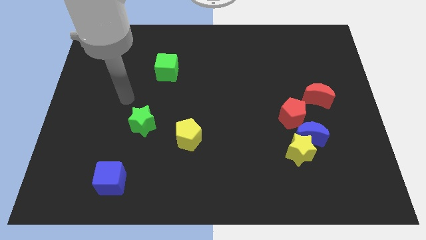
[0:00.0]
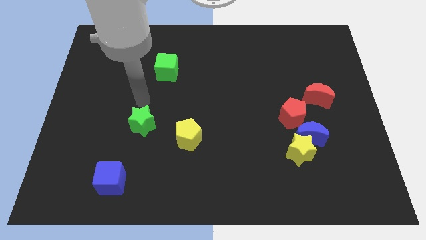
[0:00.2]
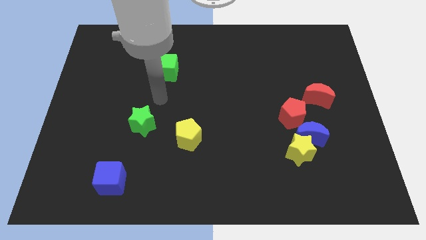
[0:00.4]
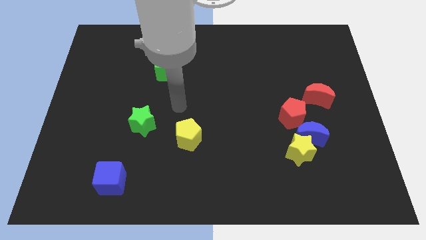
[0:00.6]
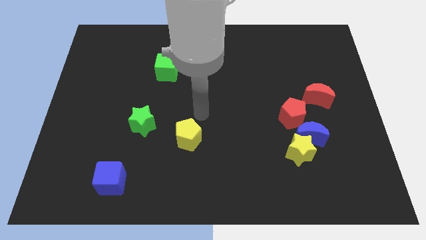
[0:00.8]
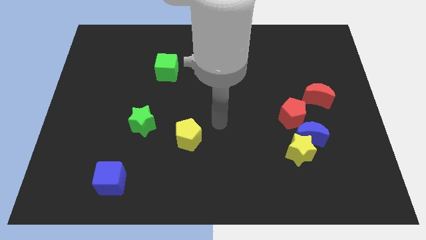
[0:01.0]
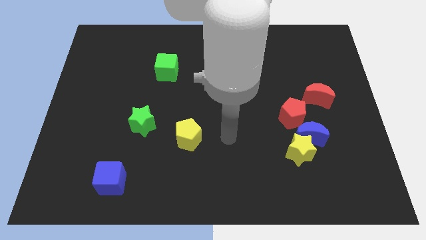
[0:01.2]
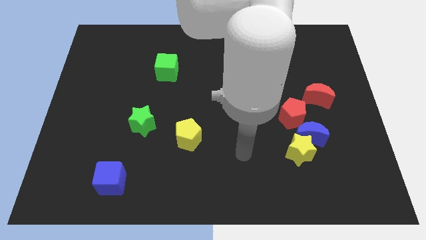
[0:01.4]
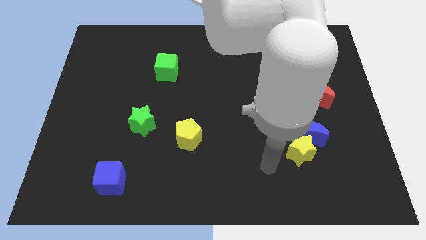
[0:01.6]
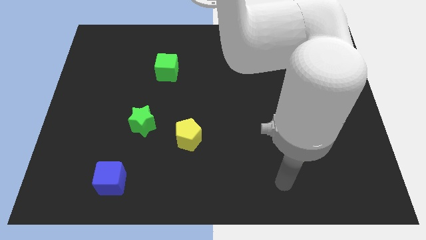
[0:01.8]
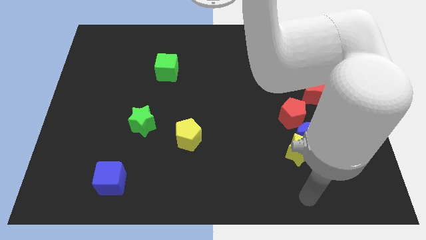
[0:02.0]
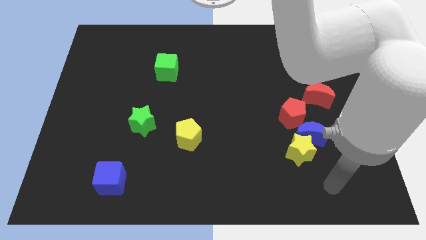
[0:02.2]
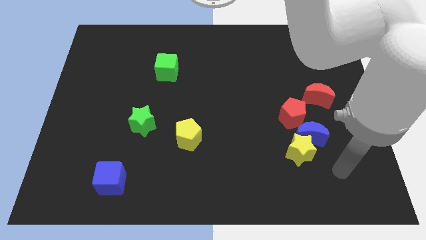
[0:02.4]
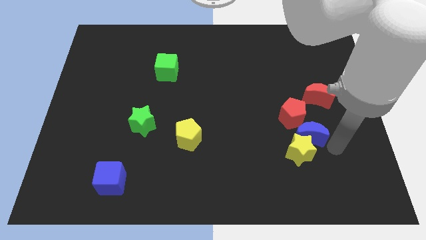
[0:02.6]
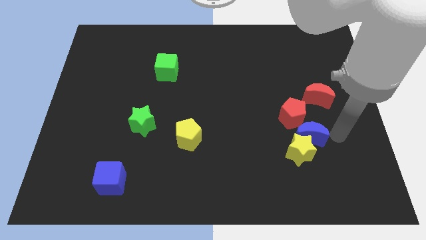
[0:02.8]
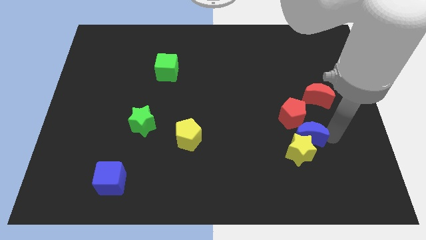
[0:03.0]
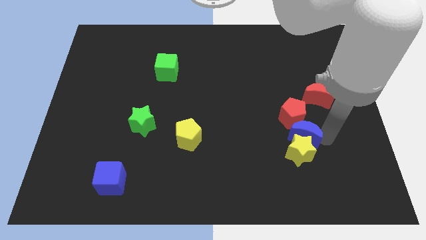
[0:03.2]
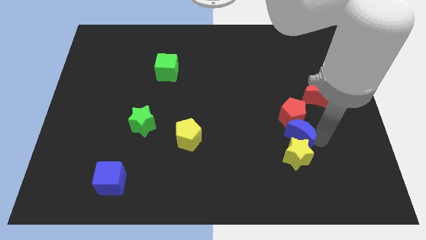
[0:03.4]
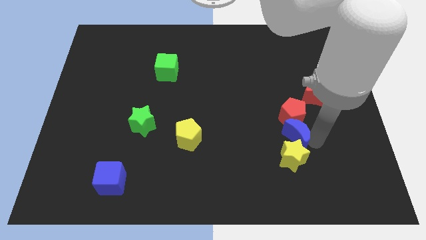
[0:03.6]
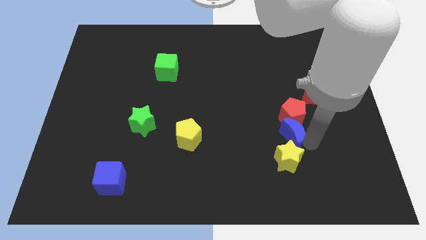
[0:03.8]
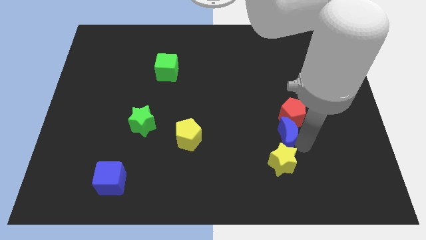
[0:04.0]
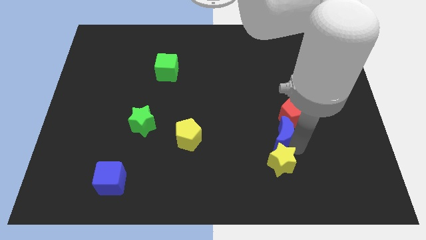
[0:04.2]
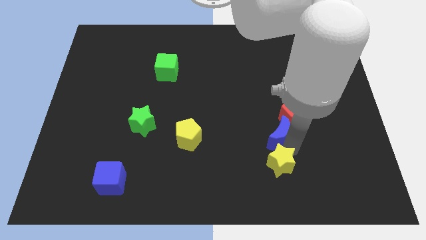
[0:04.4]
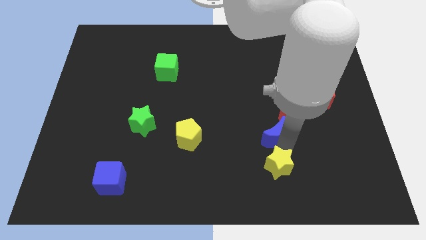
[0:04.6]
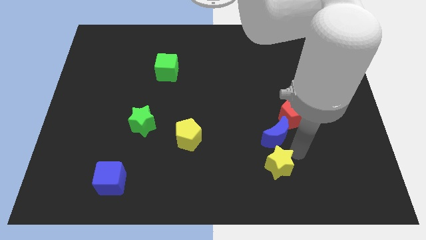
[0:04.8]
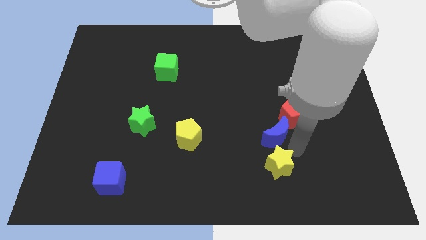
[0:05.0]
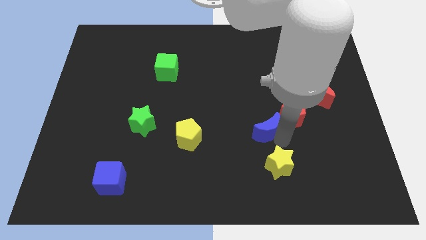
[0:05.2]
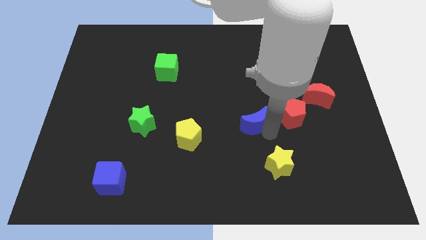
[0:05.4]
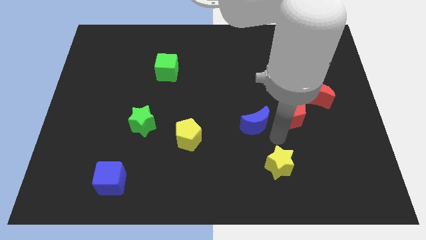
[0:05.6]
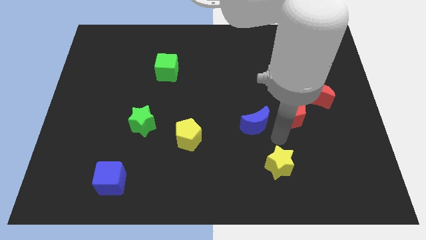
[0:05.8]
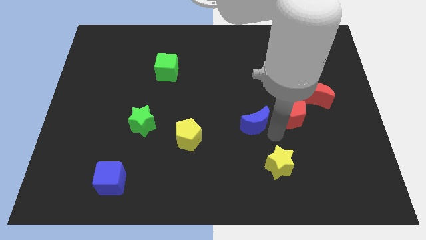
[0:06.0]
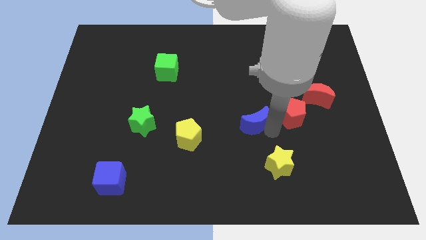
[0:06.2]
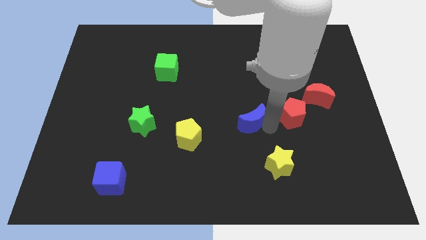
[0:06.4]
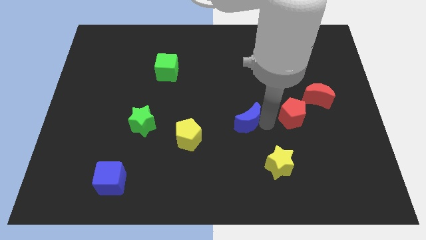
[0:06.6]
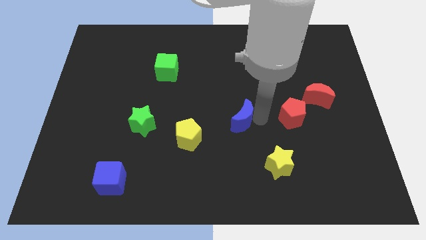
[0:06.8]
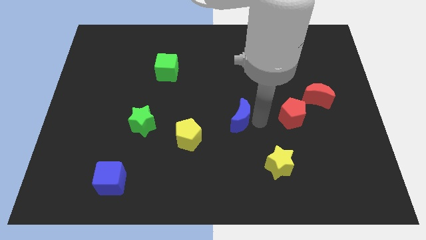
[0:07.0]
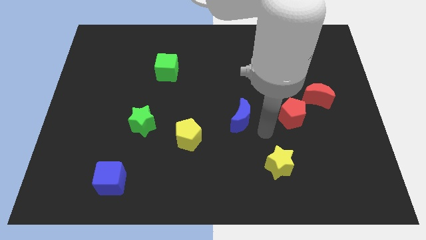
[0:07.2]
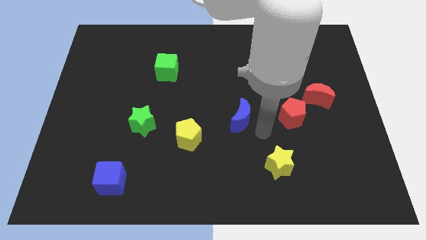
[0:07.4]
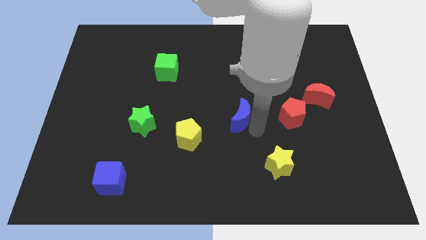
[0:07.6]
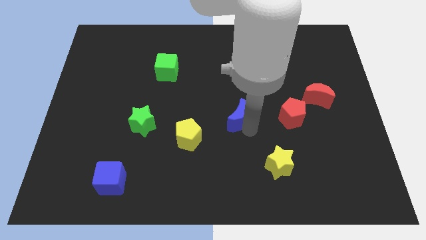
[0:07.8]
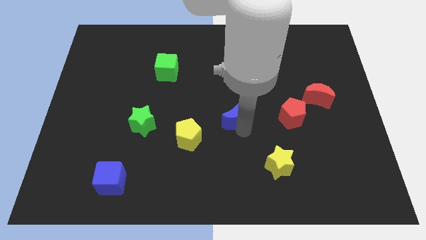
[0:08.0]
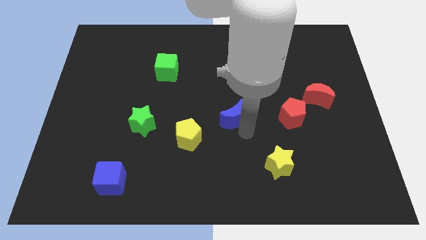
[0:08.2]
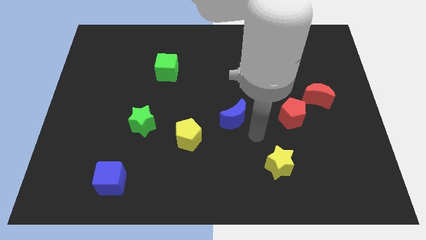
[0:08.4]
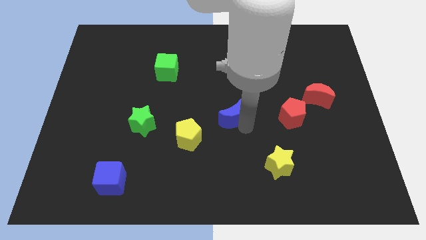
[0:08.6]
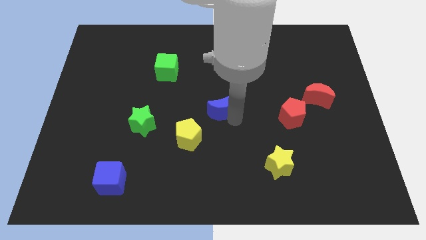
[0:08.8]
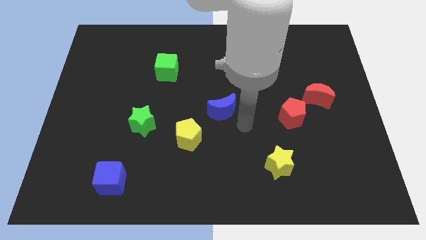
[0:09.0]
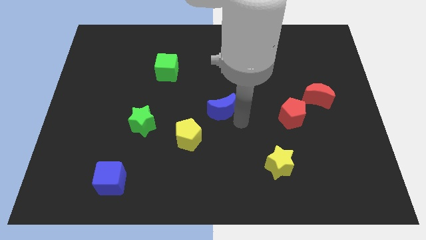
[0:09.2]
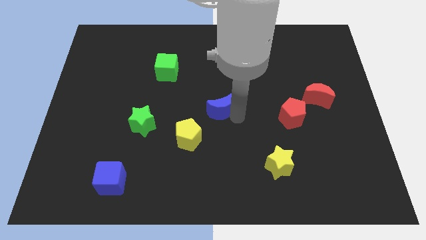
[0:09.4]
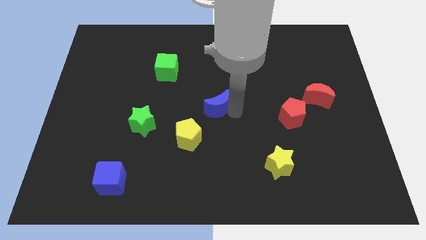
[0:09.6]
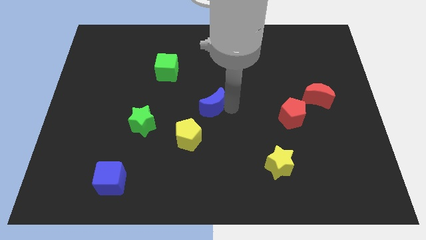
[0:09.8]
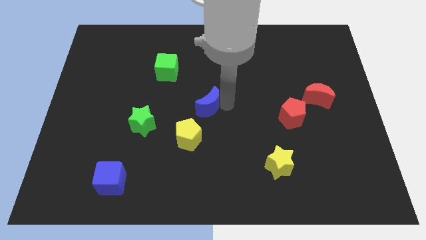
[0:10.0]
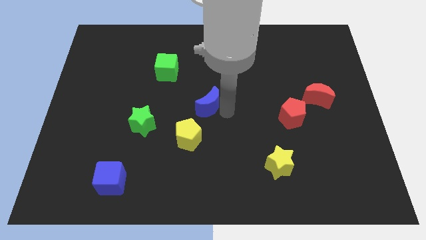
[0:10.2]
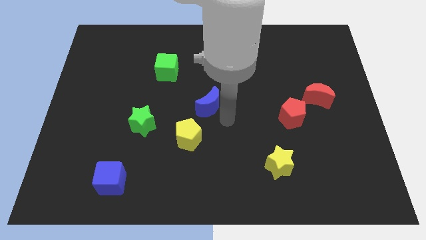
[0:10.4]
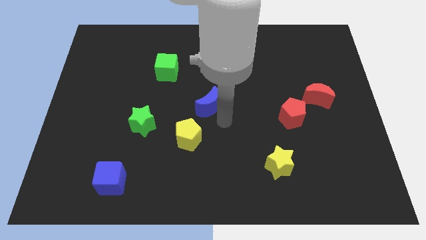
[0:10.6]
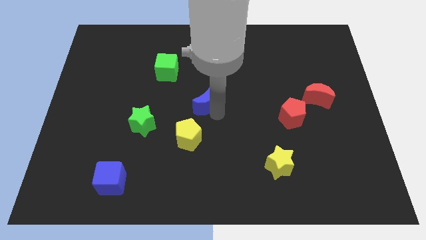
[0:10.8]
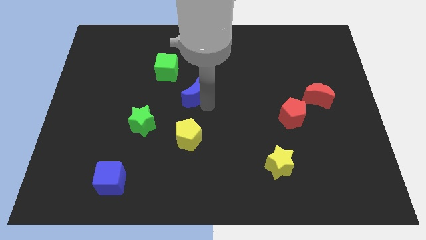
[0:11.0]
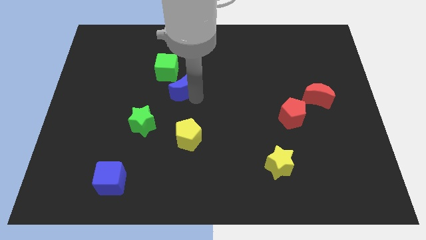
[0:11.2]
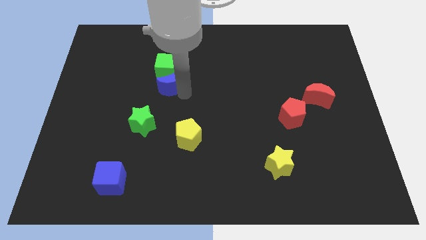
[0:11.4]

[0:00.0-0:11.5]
slide the blue moon to the green cube

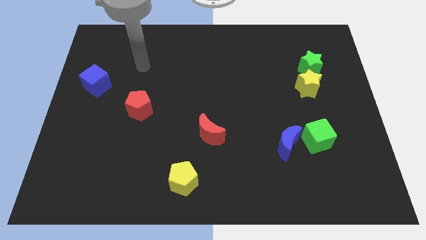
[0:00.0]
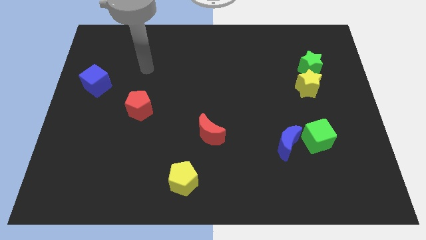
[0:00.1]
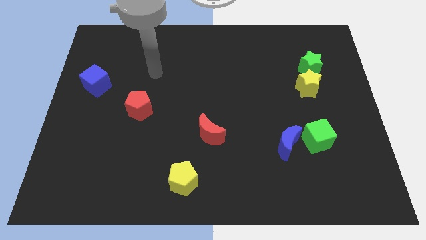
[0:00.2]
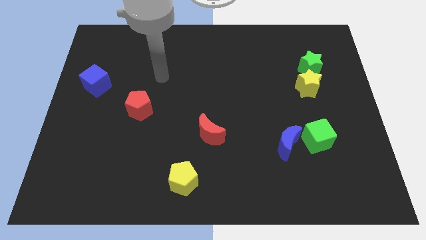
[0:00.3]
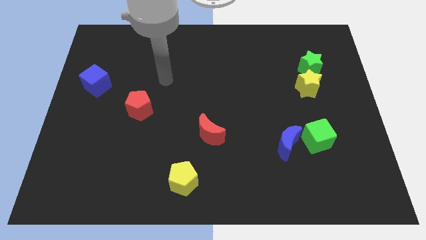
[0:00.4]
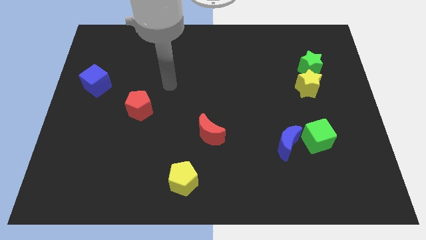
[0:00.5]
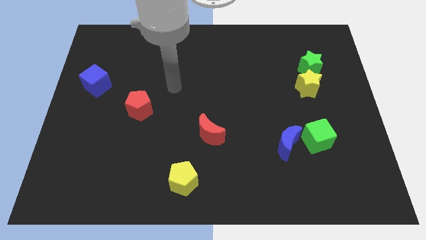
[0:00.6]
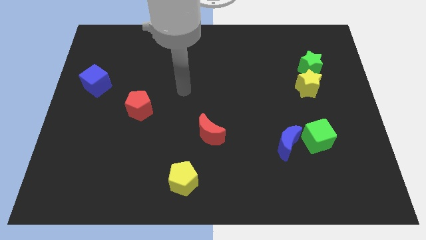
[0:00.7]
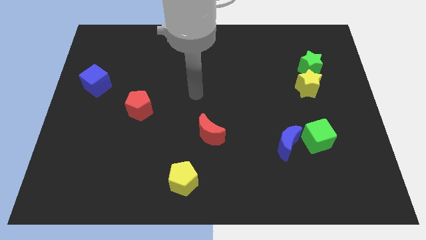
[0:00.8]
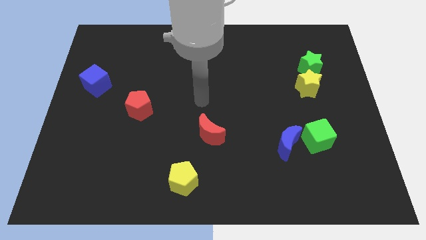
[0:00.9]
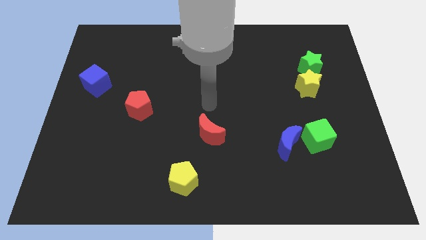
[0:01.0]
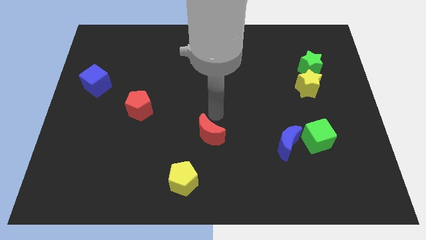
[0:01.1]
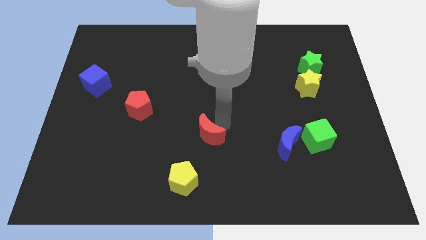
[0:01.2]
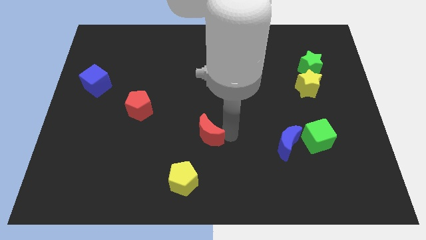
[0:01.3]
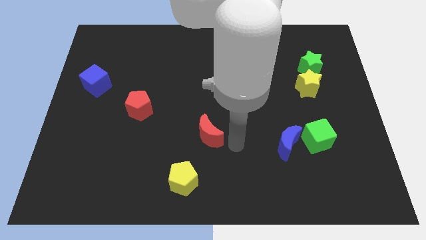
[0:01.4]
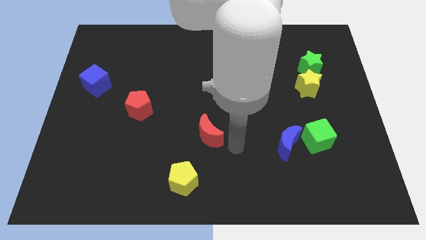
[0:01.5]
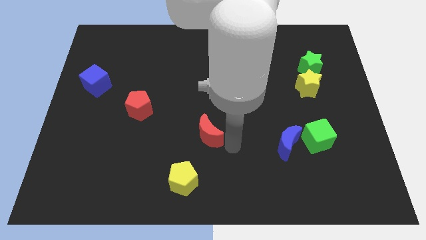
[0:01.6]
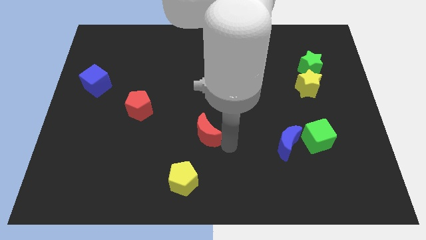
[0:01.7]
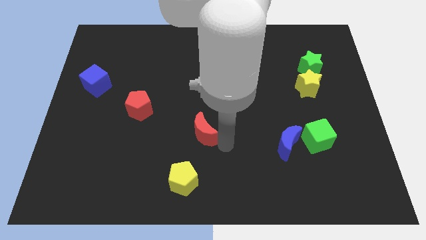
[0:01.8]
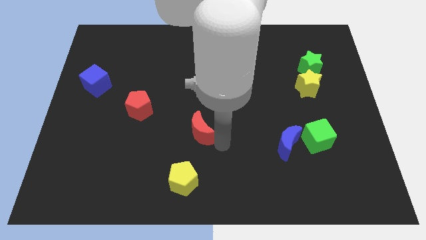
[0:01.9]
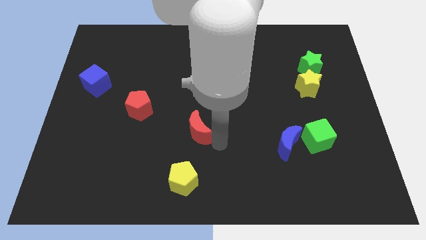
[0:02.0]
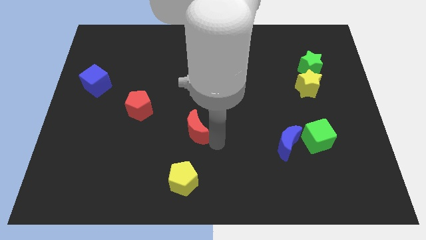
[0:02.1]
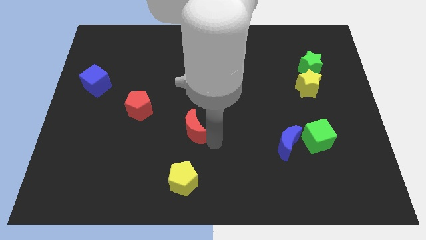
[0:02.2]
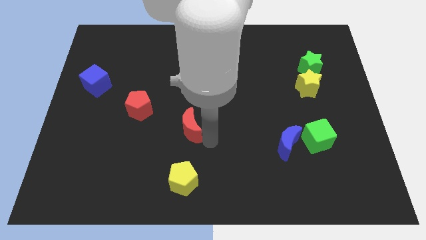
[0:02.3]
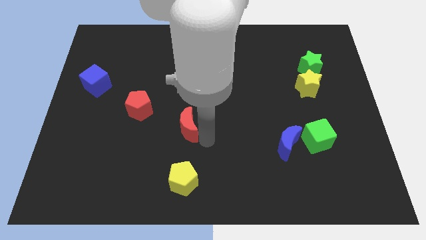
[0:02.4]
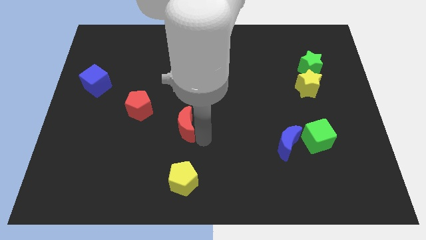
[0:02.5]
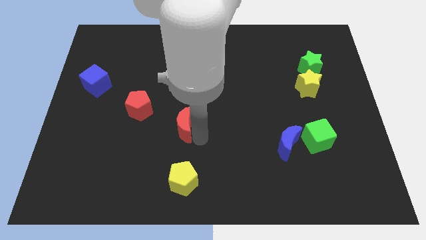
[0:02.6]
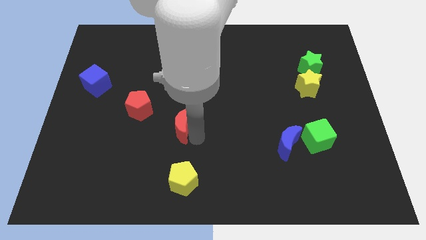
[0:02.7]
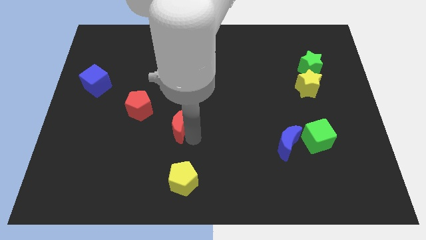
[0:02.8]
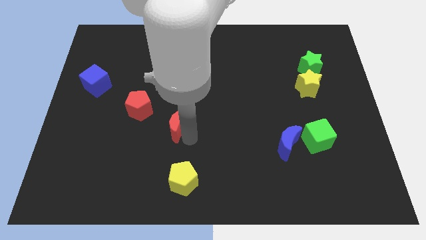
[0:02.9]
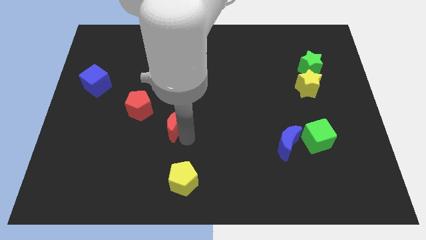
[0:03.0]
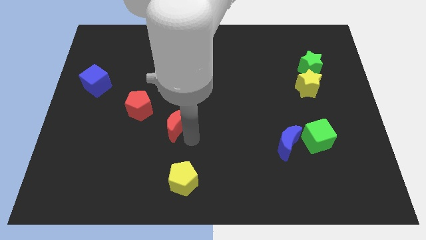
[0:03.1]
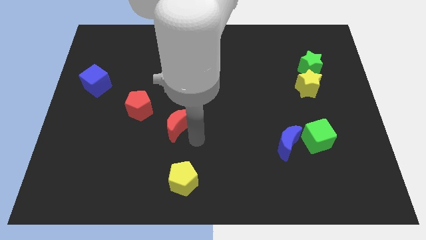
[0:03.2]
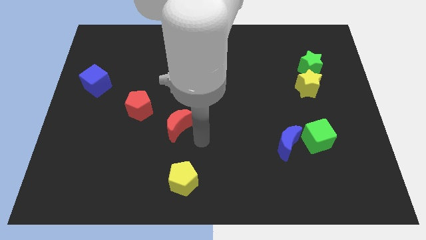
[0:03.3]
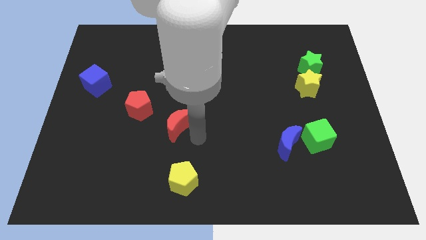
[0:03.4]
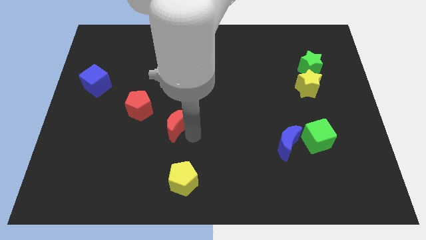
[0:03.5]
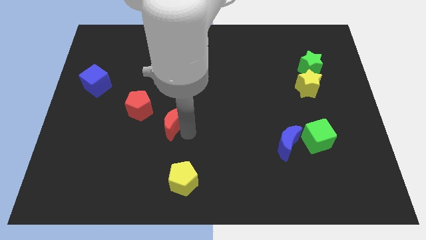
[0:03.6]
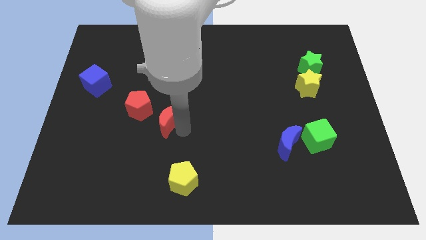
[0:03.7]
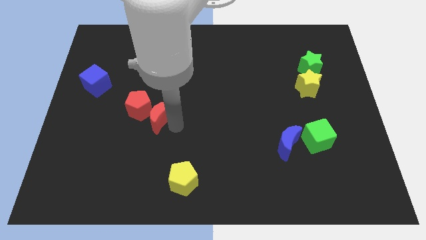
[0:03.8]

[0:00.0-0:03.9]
slide the red moon to the red pentagon
